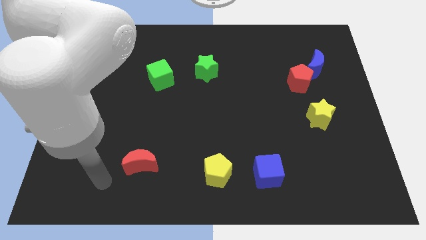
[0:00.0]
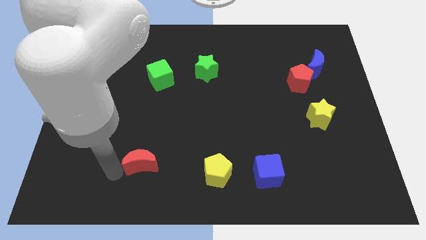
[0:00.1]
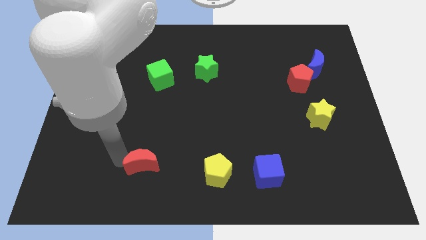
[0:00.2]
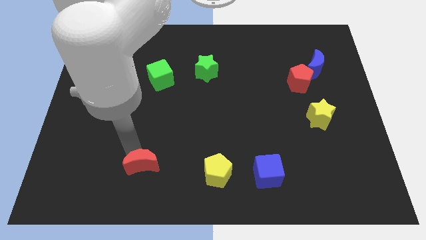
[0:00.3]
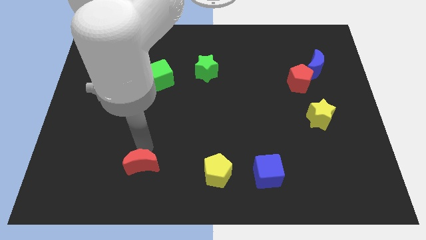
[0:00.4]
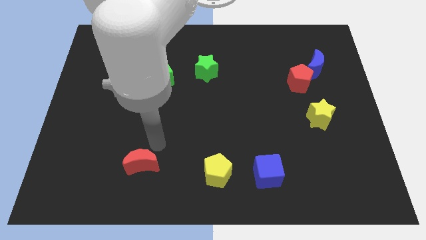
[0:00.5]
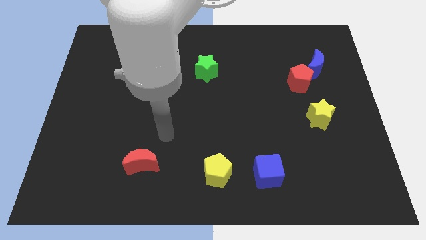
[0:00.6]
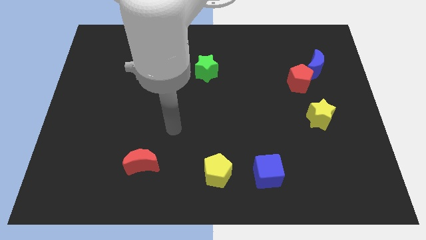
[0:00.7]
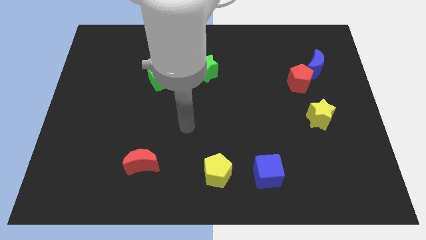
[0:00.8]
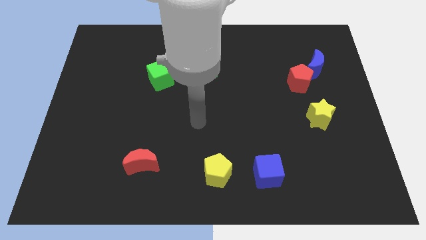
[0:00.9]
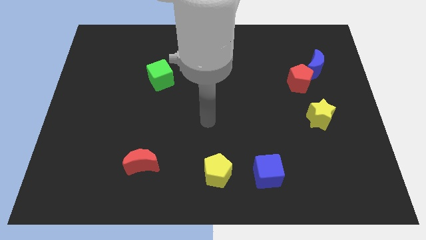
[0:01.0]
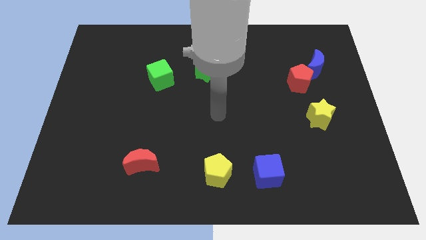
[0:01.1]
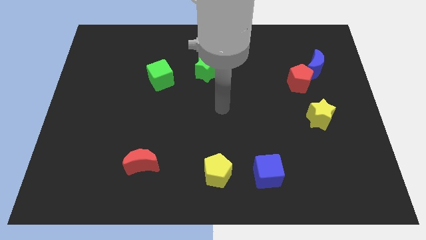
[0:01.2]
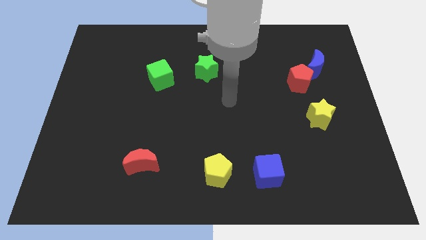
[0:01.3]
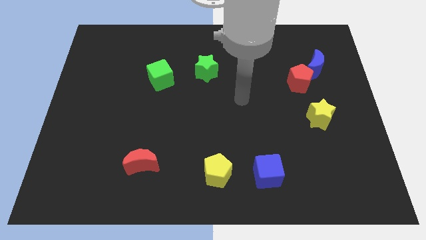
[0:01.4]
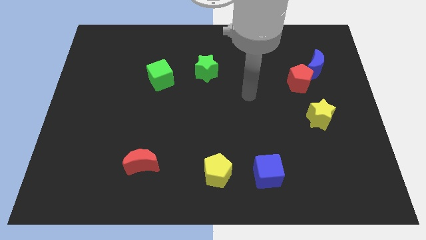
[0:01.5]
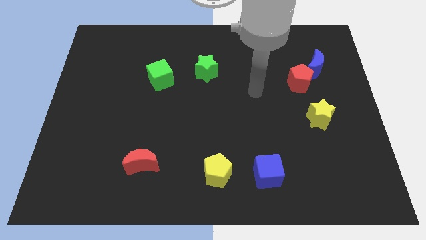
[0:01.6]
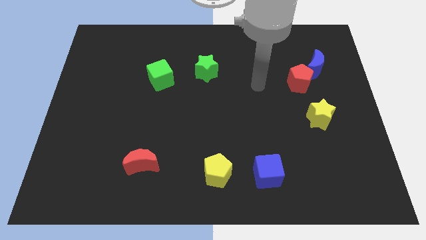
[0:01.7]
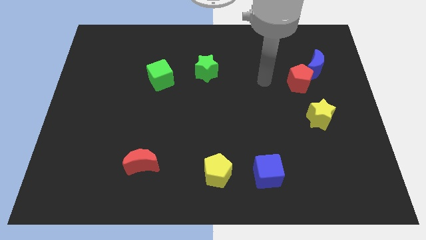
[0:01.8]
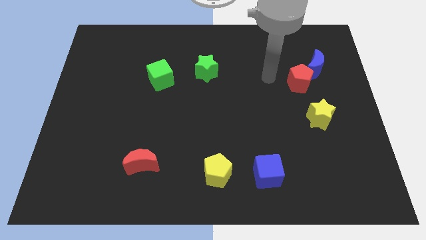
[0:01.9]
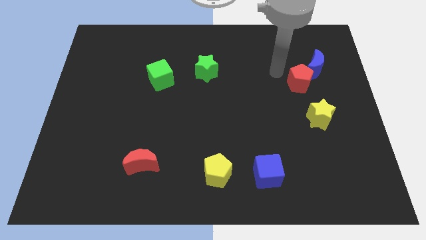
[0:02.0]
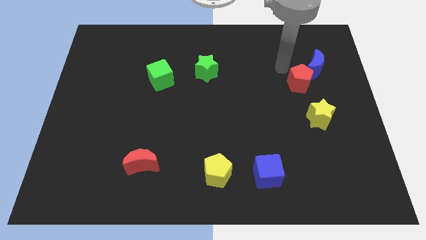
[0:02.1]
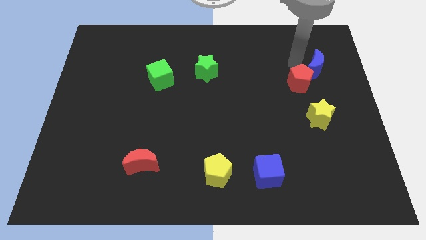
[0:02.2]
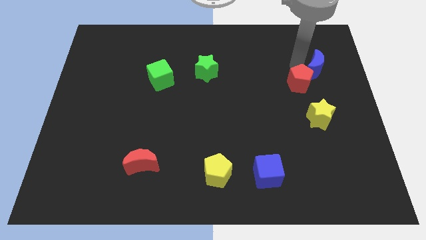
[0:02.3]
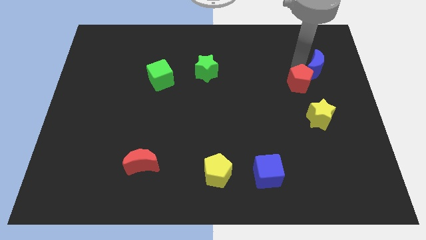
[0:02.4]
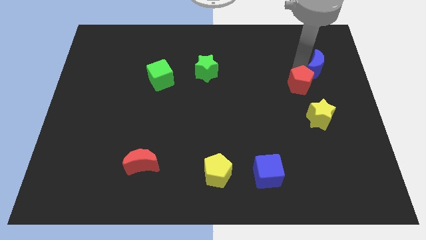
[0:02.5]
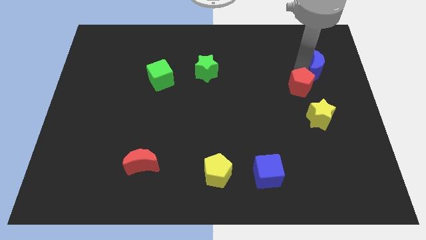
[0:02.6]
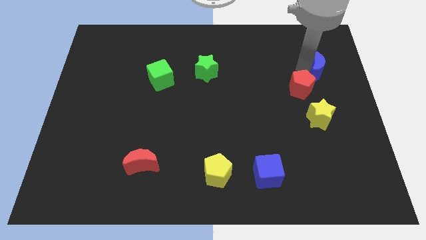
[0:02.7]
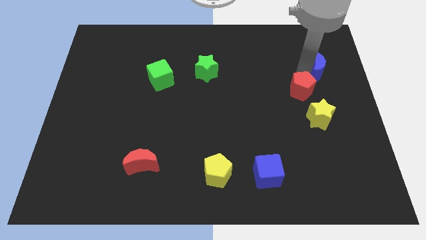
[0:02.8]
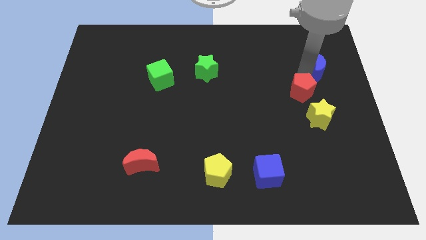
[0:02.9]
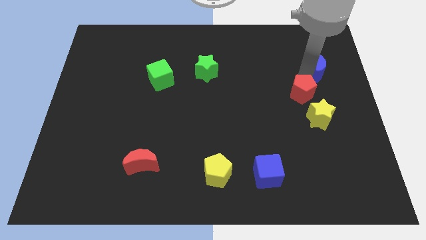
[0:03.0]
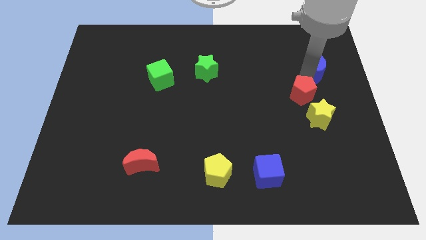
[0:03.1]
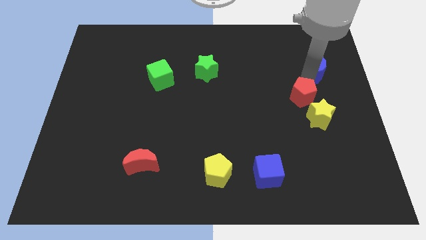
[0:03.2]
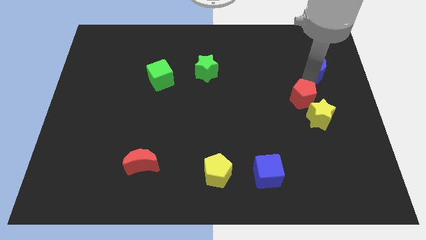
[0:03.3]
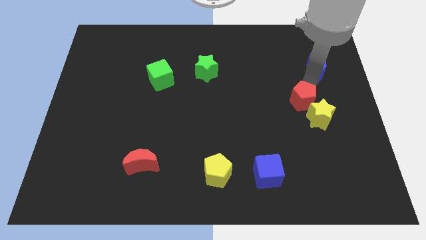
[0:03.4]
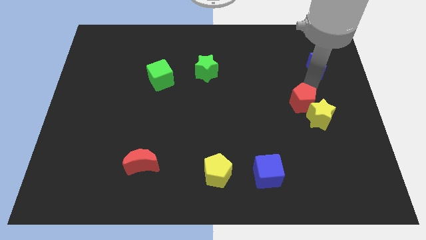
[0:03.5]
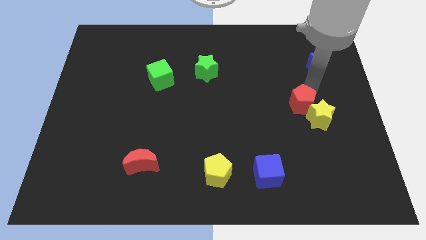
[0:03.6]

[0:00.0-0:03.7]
push the red pentagon downwards slightly

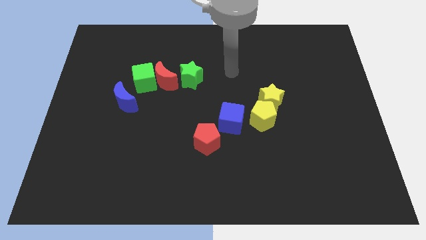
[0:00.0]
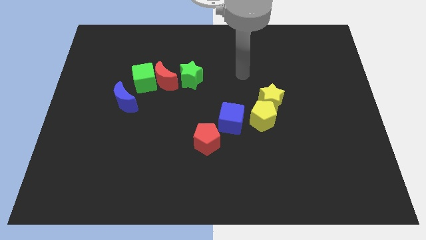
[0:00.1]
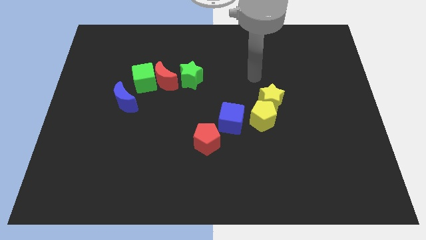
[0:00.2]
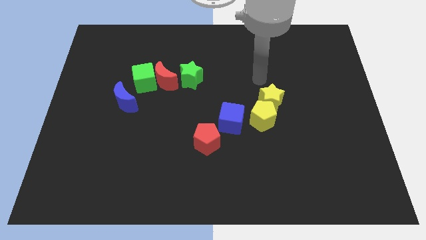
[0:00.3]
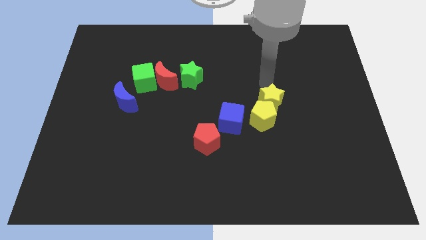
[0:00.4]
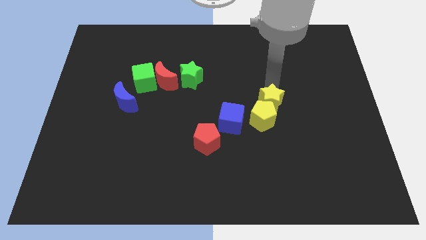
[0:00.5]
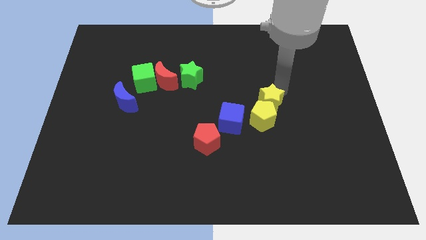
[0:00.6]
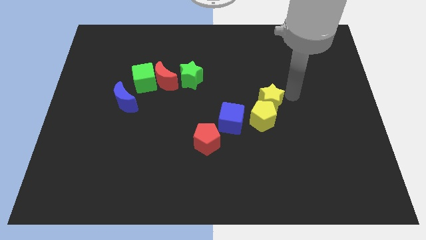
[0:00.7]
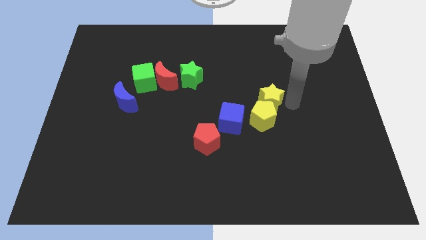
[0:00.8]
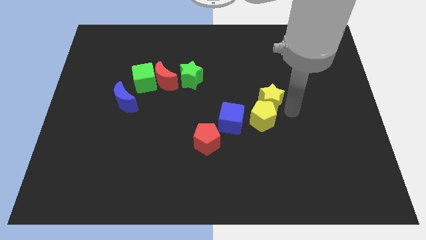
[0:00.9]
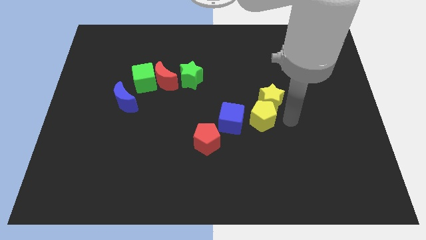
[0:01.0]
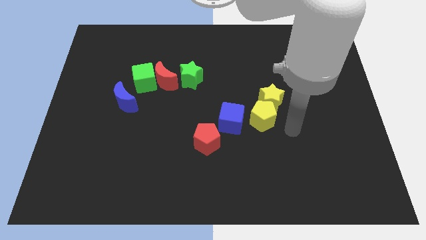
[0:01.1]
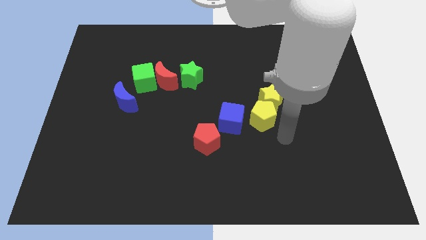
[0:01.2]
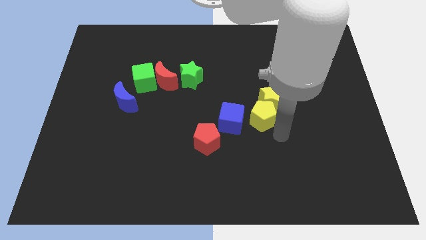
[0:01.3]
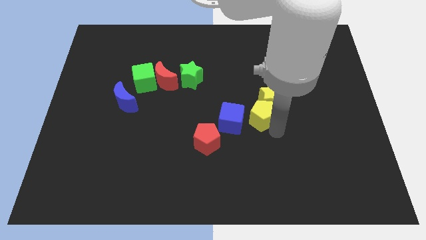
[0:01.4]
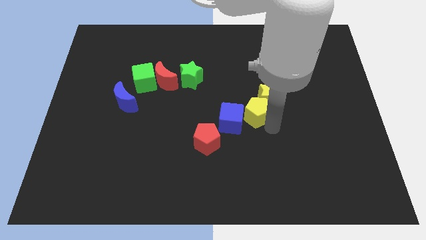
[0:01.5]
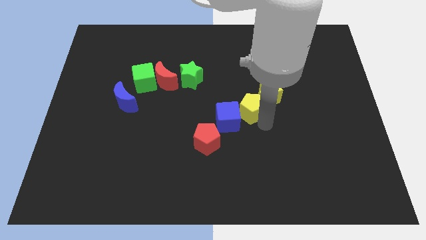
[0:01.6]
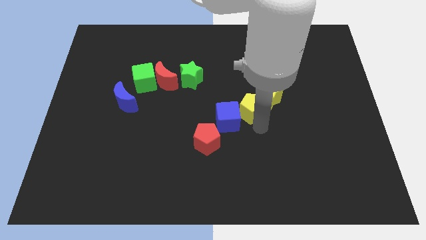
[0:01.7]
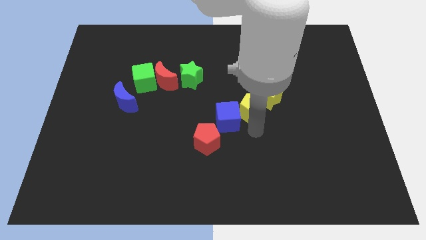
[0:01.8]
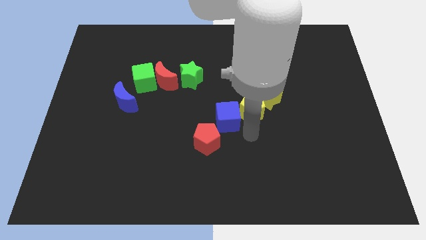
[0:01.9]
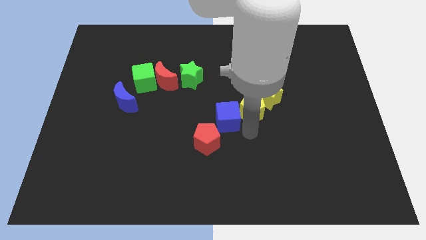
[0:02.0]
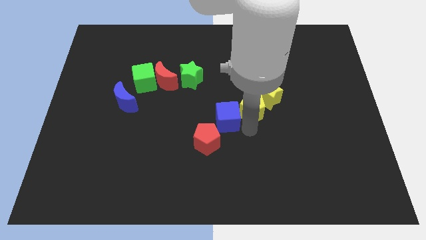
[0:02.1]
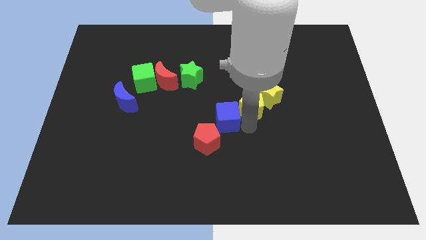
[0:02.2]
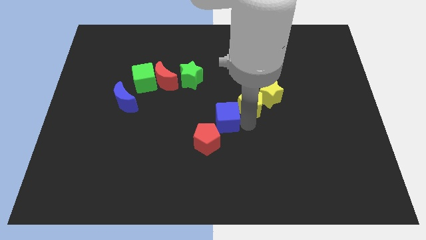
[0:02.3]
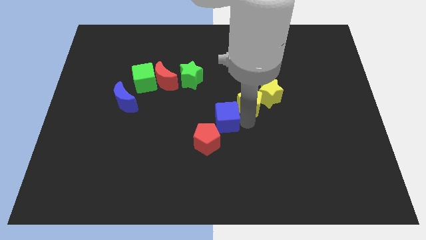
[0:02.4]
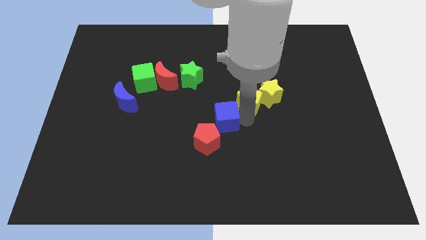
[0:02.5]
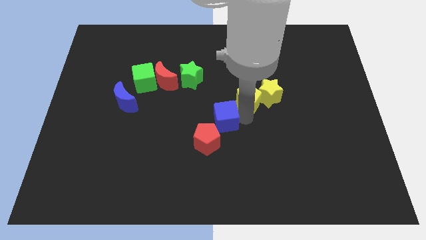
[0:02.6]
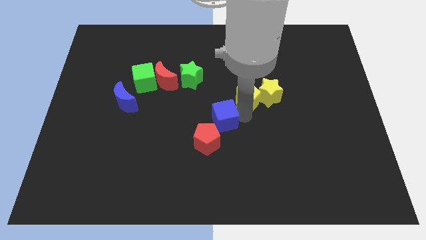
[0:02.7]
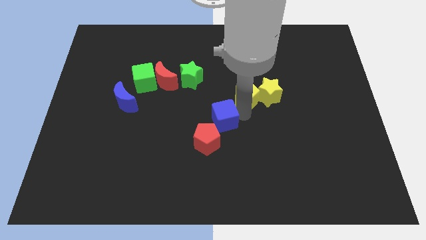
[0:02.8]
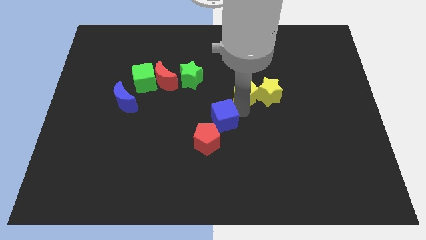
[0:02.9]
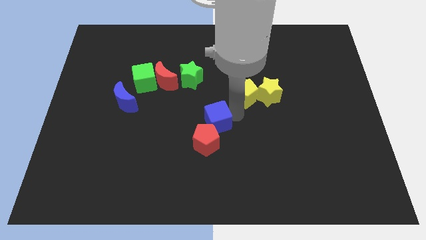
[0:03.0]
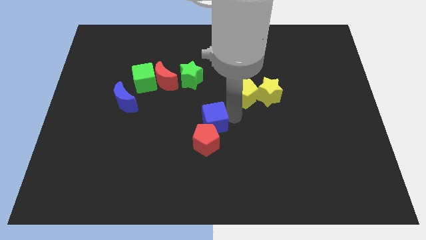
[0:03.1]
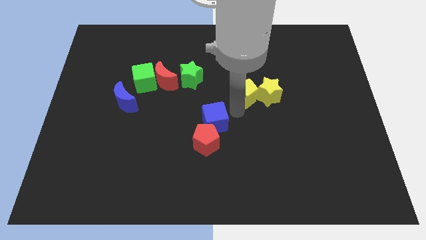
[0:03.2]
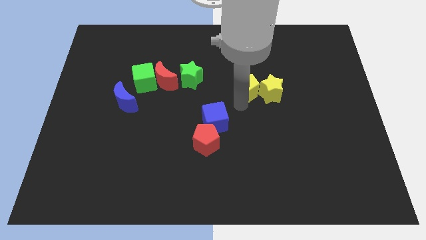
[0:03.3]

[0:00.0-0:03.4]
slide the yellow pentagon slightly upwards

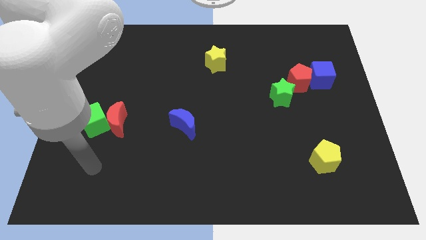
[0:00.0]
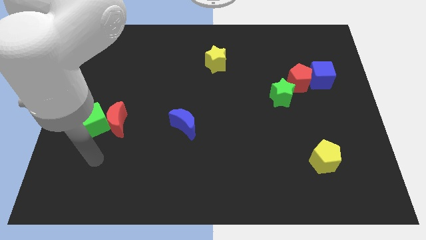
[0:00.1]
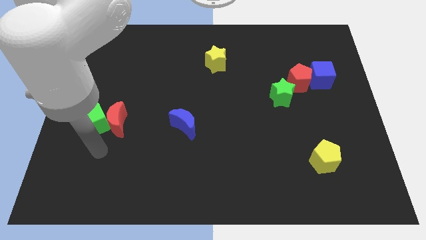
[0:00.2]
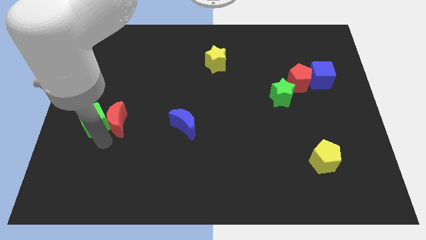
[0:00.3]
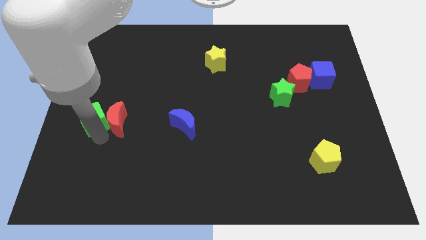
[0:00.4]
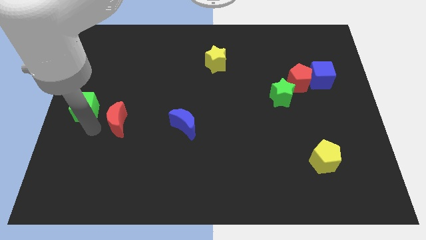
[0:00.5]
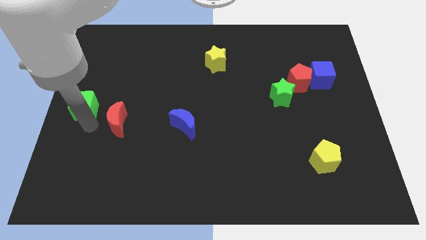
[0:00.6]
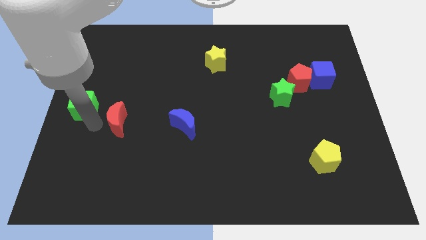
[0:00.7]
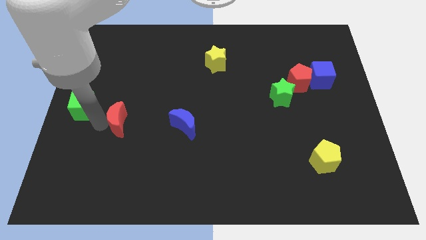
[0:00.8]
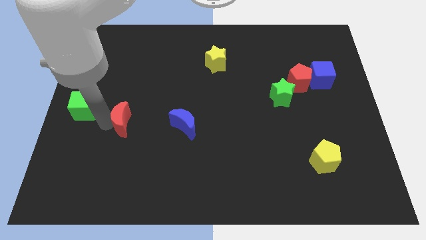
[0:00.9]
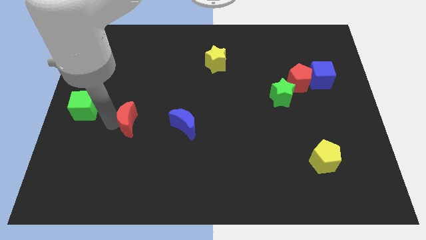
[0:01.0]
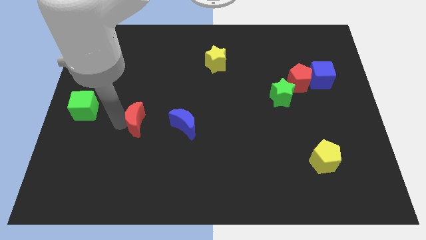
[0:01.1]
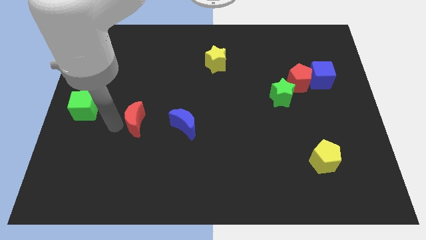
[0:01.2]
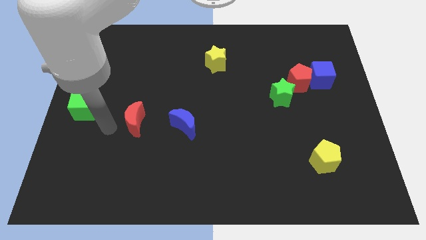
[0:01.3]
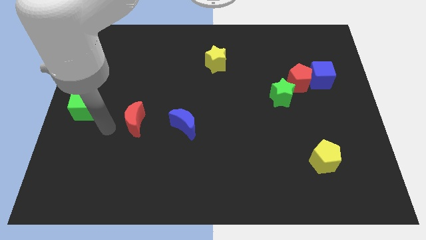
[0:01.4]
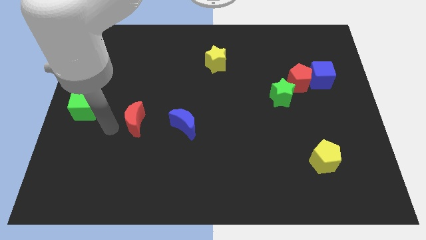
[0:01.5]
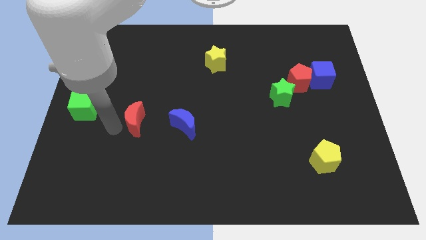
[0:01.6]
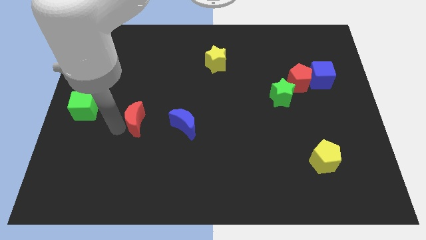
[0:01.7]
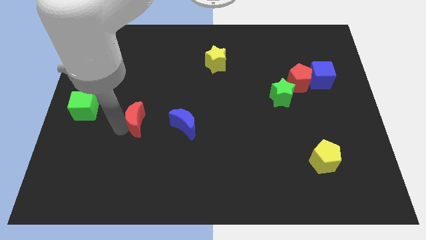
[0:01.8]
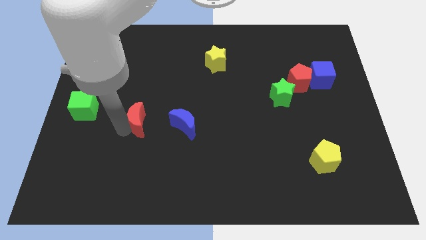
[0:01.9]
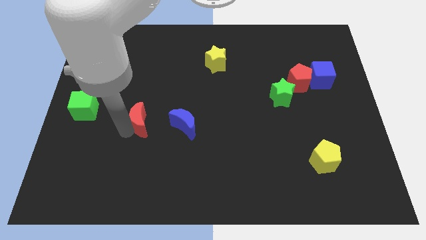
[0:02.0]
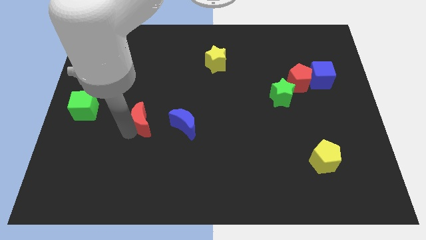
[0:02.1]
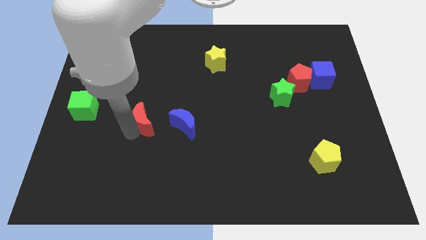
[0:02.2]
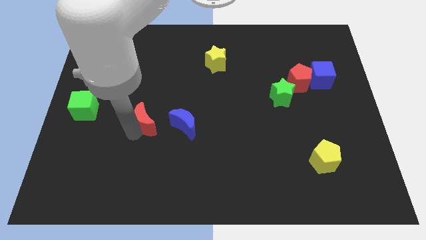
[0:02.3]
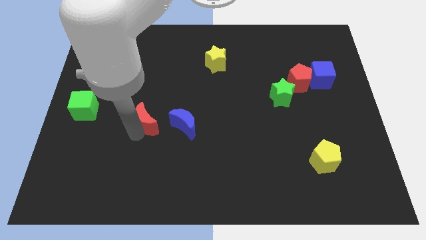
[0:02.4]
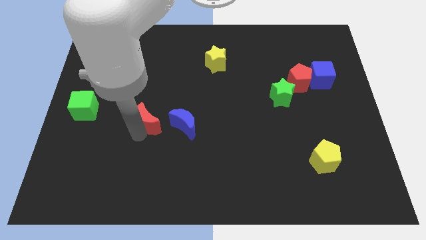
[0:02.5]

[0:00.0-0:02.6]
slightly push the red moon right
